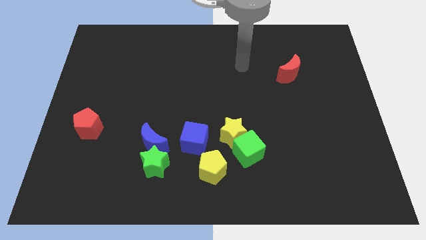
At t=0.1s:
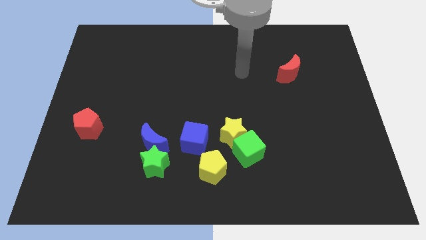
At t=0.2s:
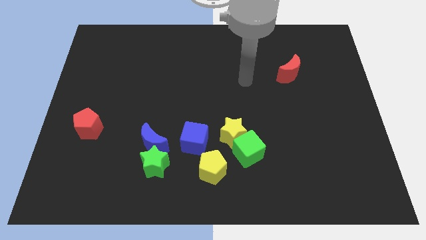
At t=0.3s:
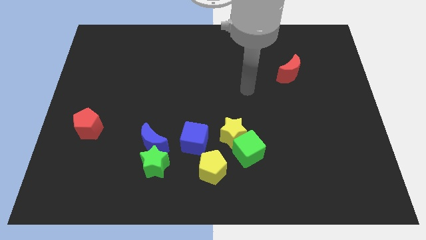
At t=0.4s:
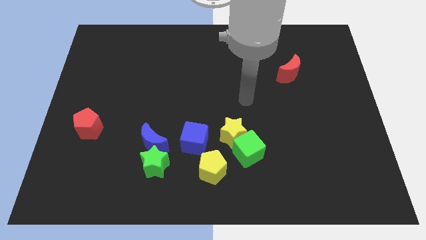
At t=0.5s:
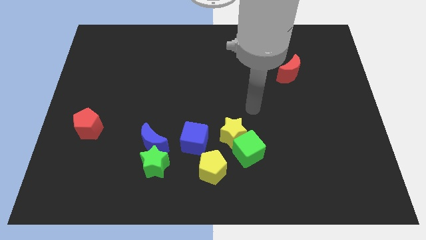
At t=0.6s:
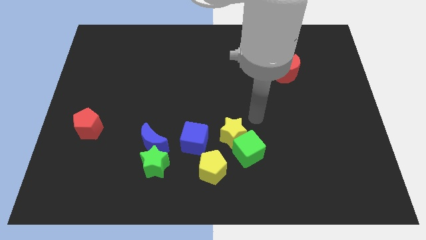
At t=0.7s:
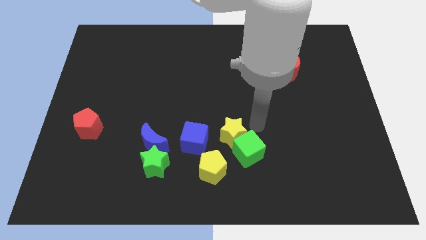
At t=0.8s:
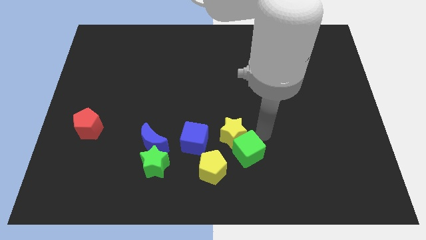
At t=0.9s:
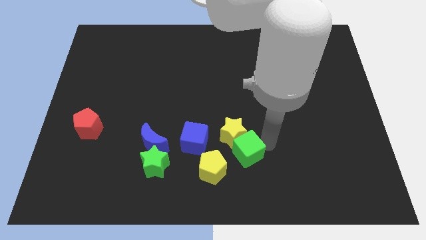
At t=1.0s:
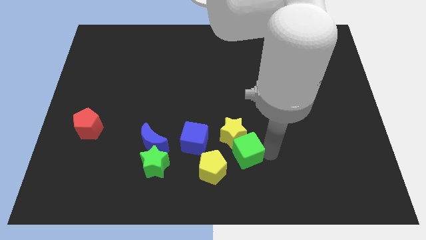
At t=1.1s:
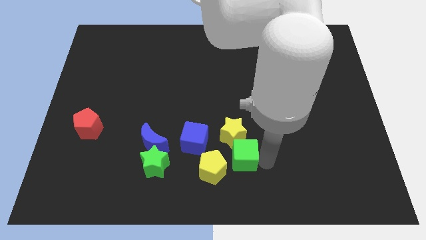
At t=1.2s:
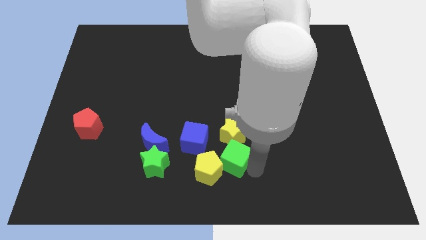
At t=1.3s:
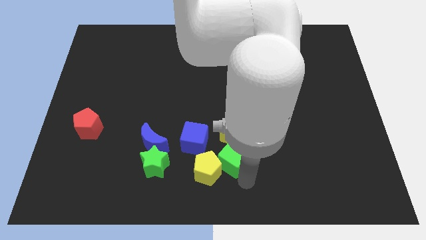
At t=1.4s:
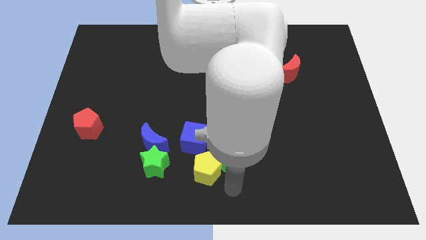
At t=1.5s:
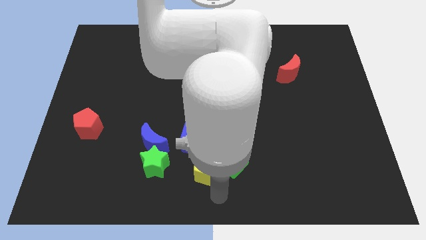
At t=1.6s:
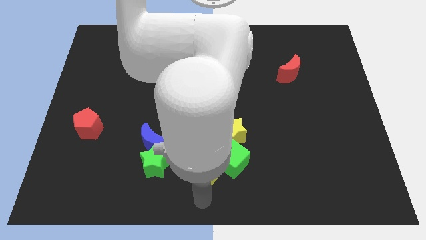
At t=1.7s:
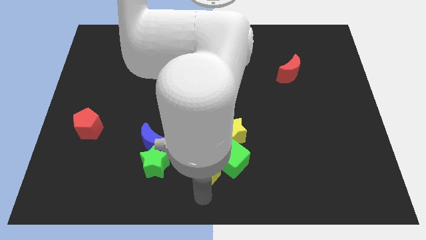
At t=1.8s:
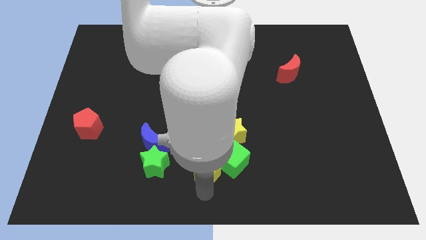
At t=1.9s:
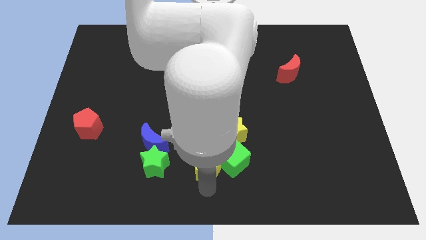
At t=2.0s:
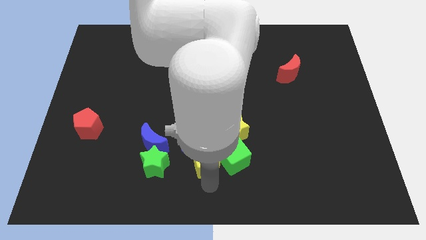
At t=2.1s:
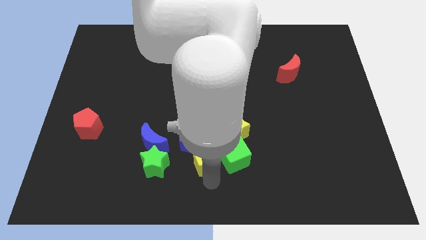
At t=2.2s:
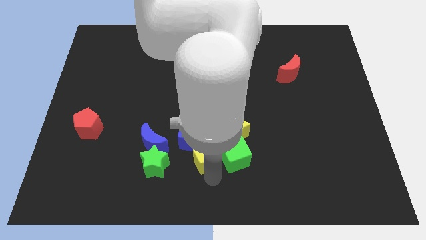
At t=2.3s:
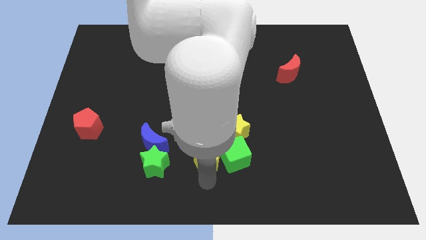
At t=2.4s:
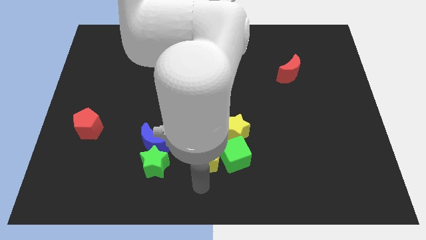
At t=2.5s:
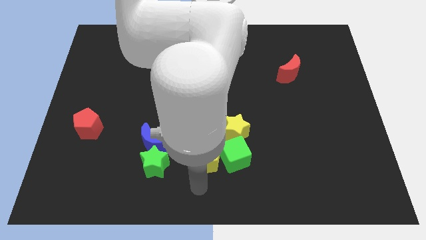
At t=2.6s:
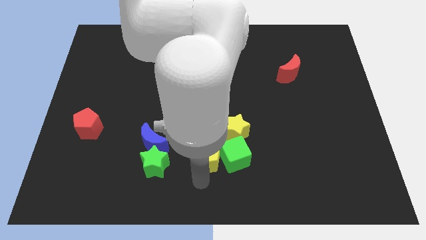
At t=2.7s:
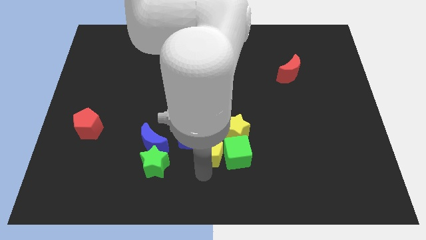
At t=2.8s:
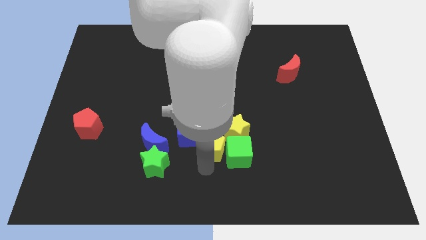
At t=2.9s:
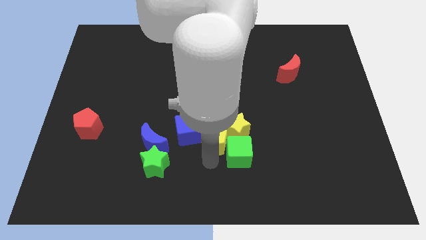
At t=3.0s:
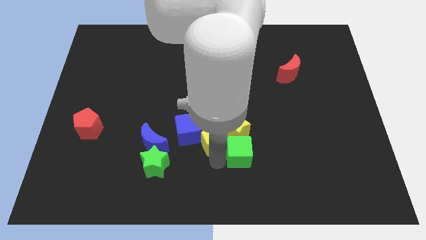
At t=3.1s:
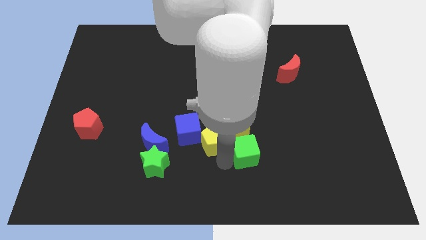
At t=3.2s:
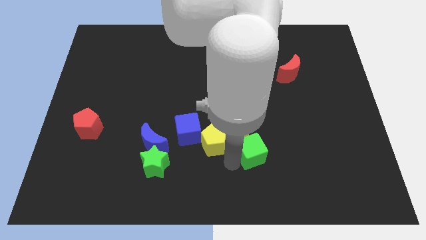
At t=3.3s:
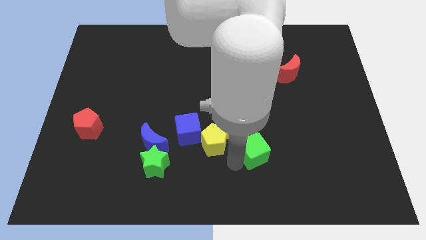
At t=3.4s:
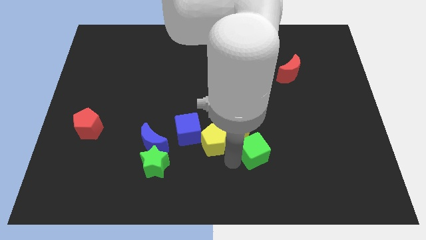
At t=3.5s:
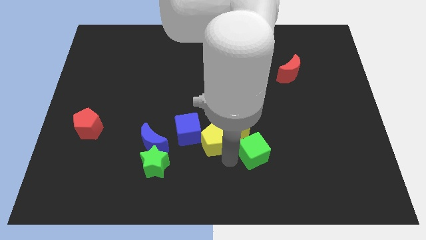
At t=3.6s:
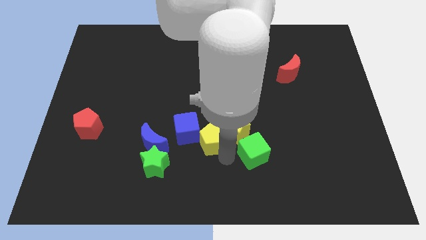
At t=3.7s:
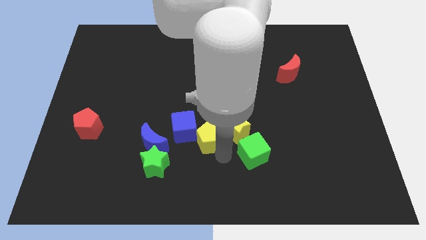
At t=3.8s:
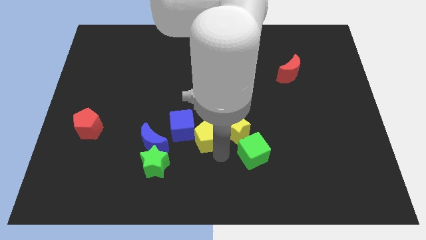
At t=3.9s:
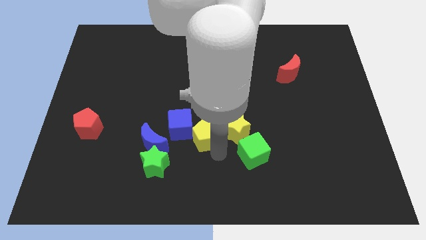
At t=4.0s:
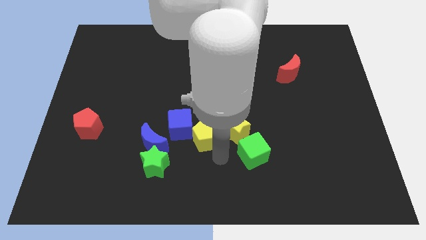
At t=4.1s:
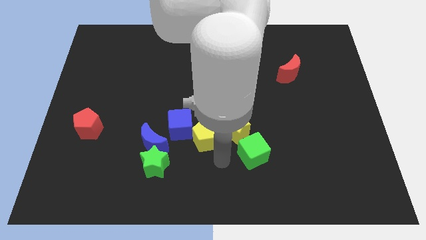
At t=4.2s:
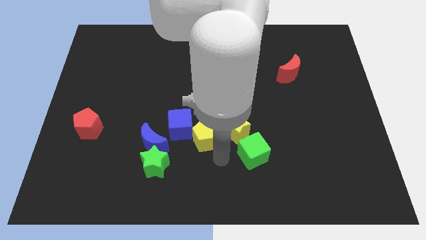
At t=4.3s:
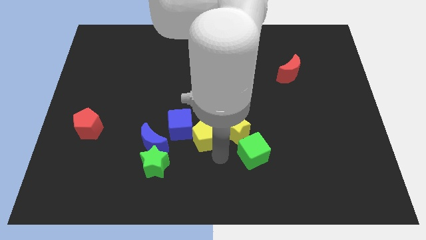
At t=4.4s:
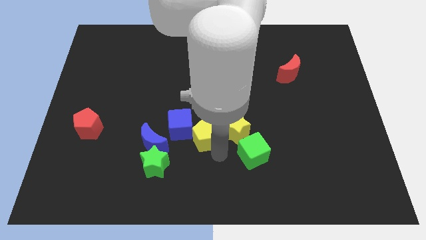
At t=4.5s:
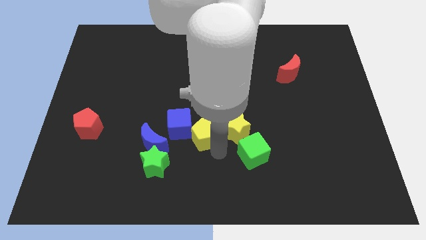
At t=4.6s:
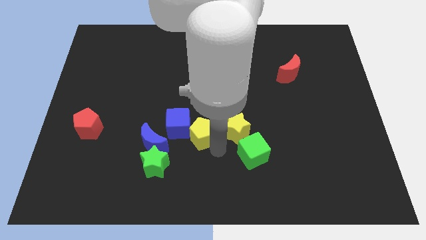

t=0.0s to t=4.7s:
push the yellow pentagon up and then to the left slightly

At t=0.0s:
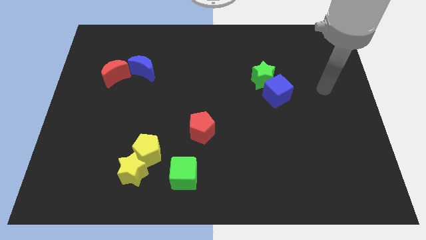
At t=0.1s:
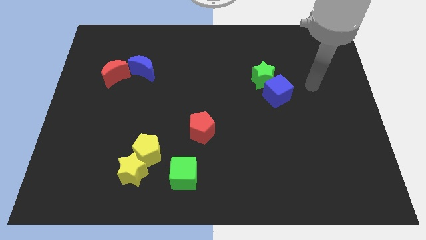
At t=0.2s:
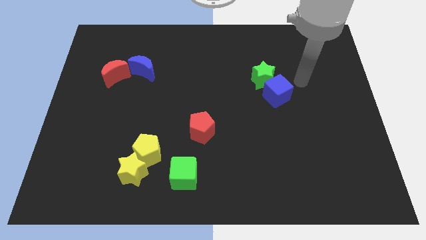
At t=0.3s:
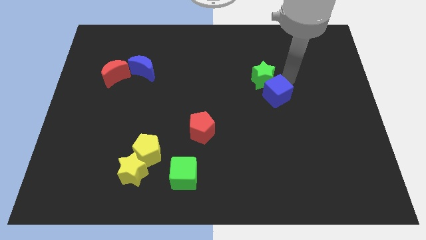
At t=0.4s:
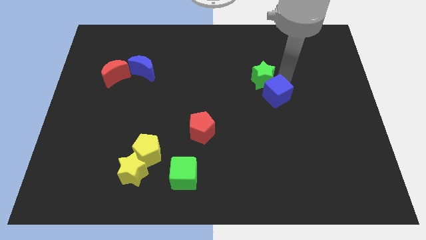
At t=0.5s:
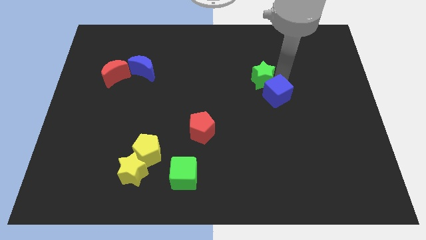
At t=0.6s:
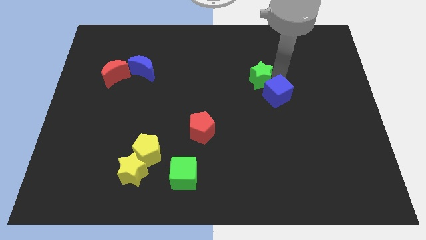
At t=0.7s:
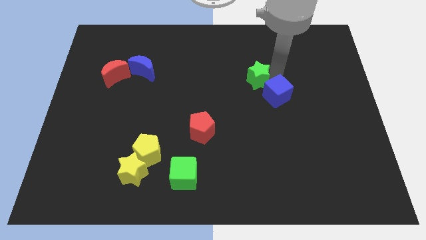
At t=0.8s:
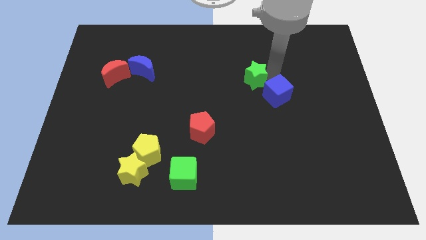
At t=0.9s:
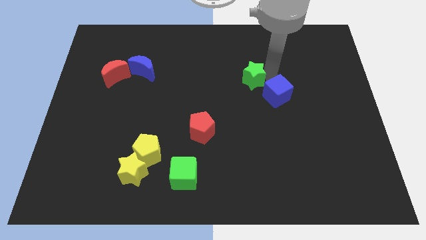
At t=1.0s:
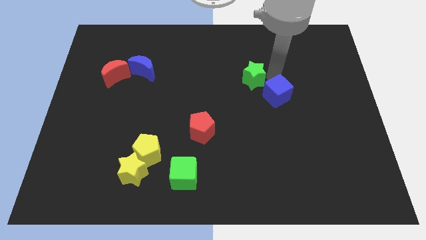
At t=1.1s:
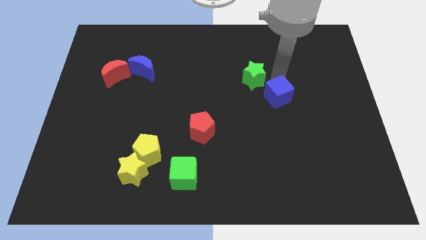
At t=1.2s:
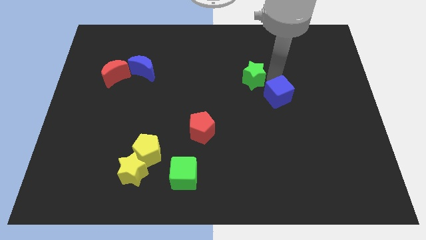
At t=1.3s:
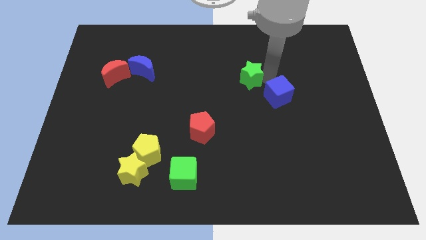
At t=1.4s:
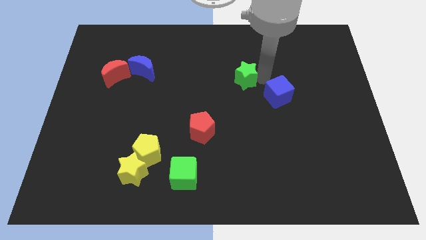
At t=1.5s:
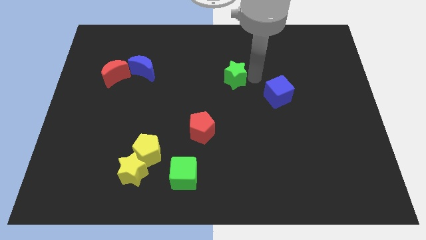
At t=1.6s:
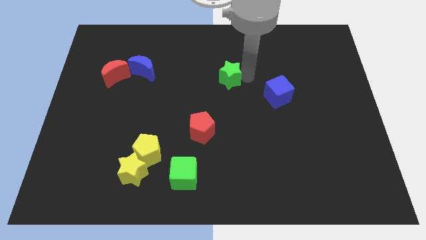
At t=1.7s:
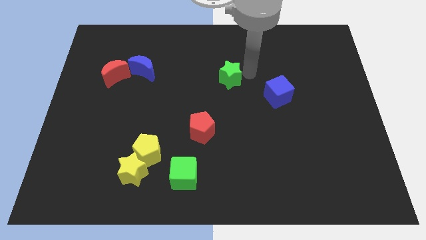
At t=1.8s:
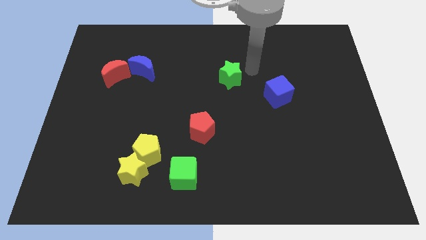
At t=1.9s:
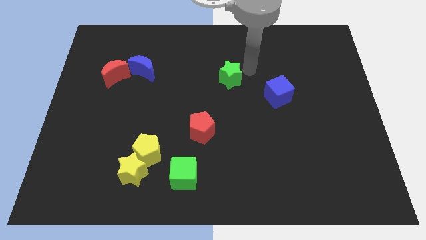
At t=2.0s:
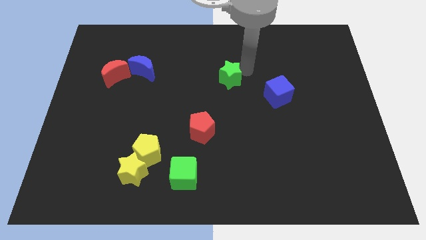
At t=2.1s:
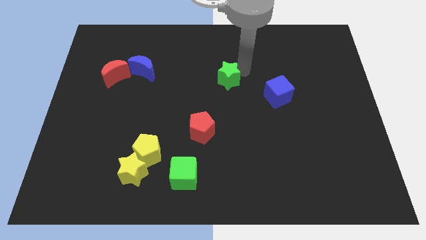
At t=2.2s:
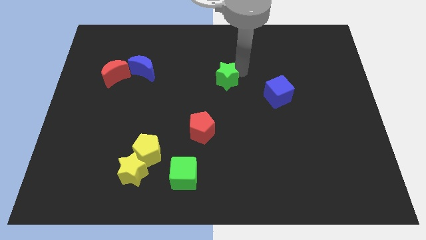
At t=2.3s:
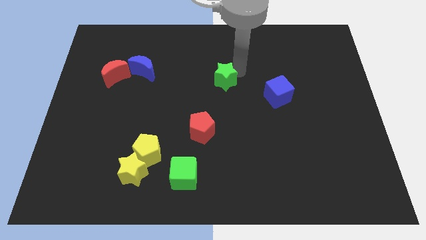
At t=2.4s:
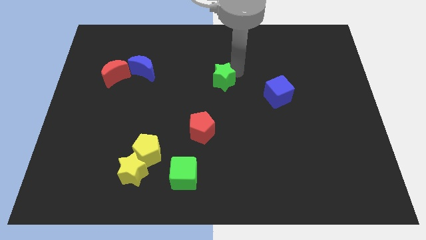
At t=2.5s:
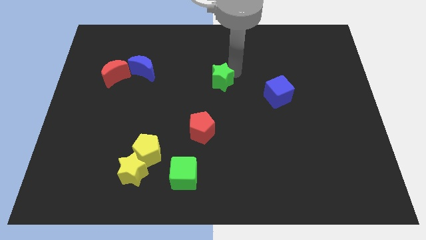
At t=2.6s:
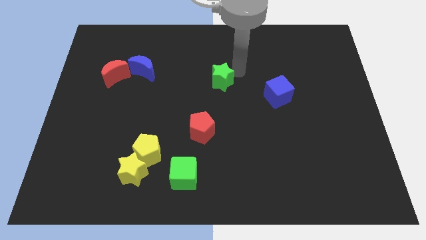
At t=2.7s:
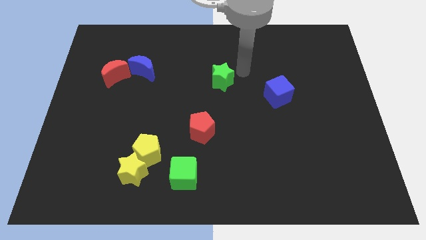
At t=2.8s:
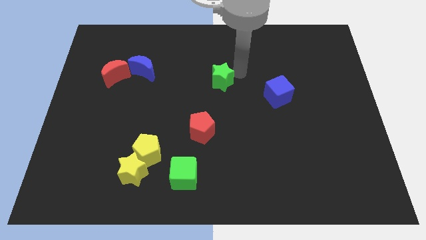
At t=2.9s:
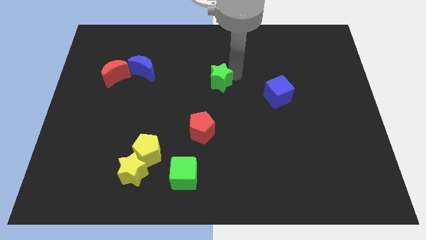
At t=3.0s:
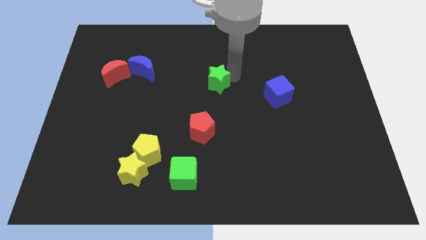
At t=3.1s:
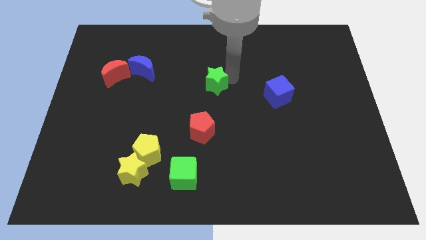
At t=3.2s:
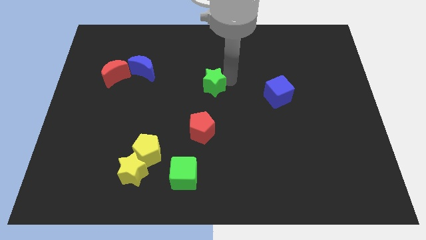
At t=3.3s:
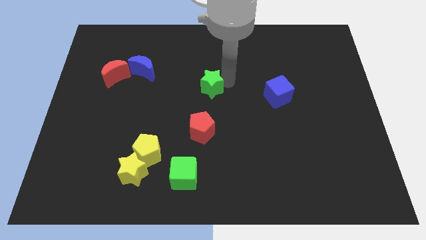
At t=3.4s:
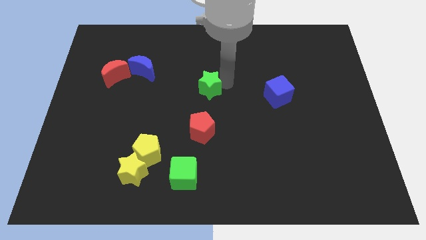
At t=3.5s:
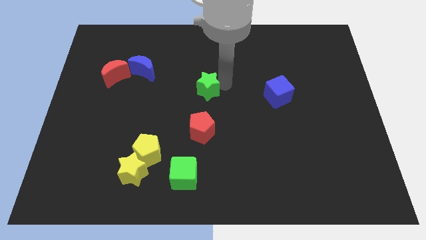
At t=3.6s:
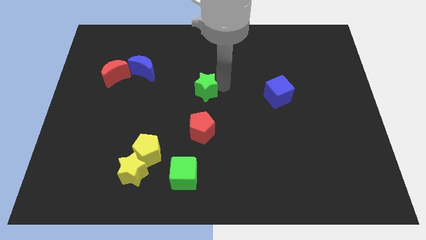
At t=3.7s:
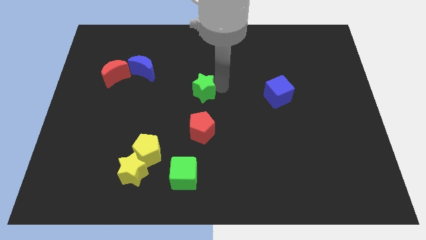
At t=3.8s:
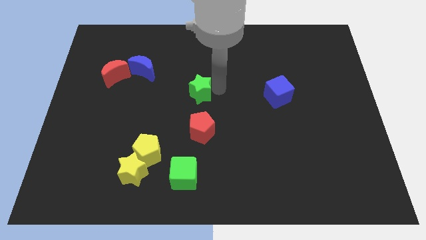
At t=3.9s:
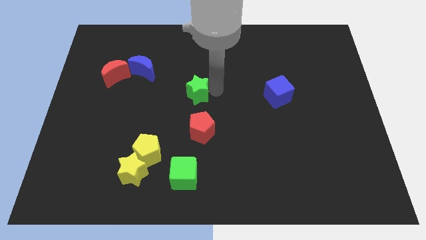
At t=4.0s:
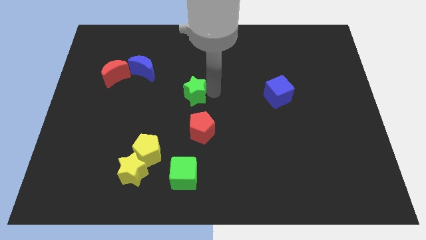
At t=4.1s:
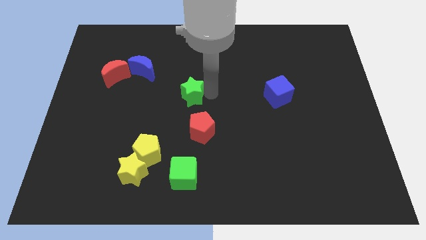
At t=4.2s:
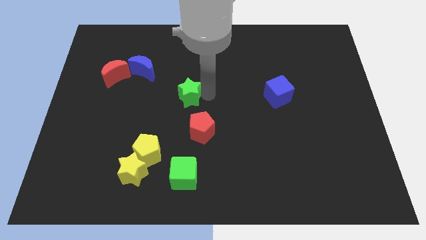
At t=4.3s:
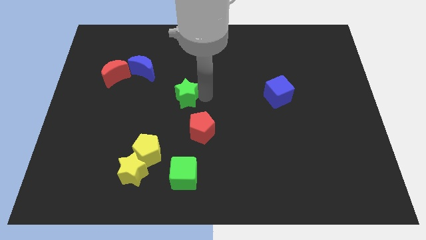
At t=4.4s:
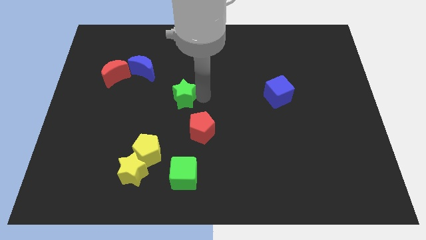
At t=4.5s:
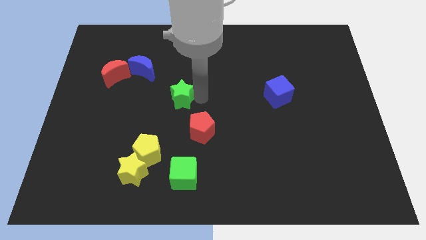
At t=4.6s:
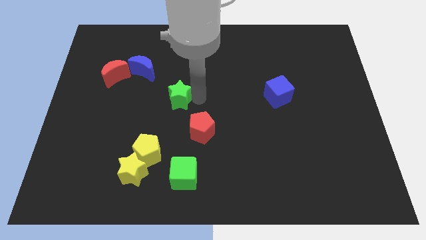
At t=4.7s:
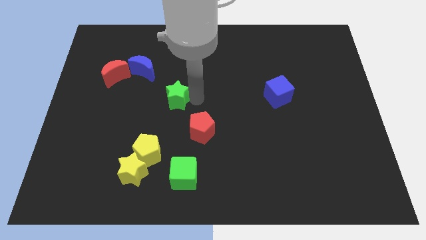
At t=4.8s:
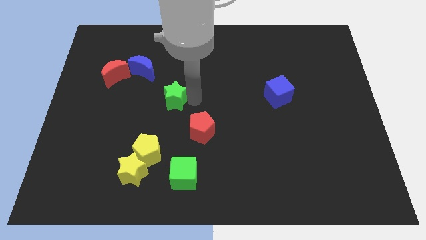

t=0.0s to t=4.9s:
slide the green star to the left
